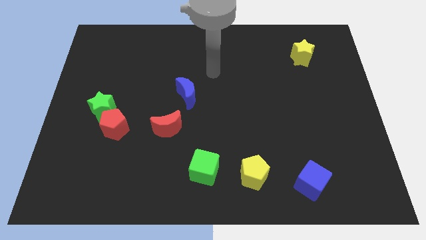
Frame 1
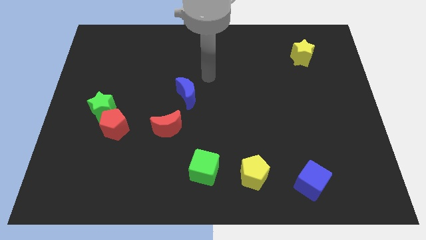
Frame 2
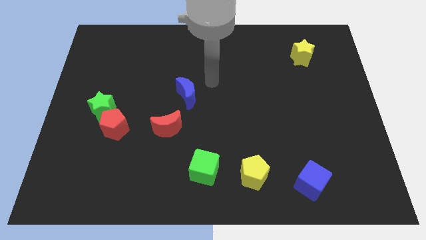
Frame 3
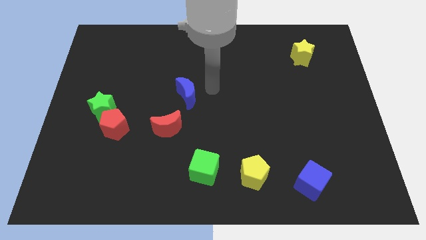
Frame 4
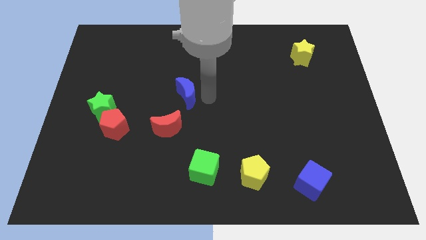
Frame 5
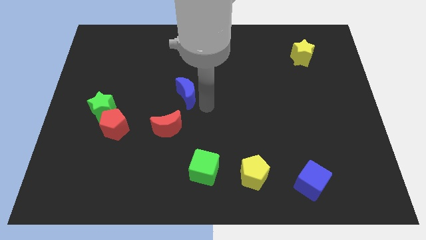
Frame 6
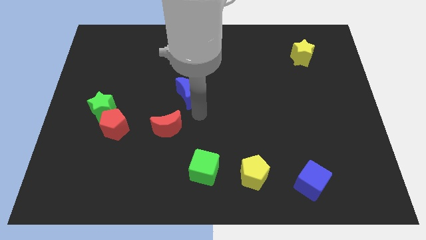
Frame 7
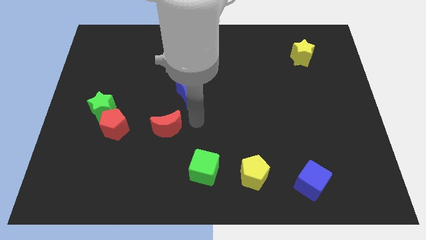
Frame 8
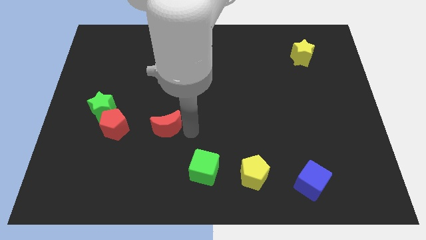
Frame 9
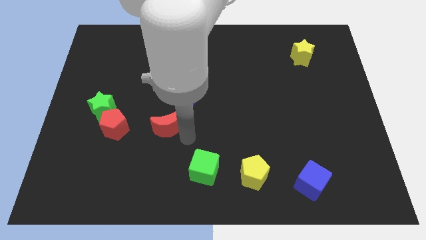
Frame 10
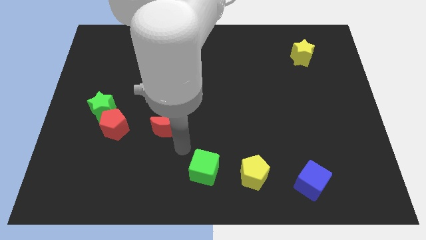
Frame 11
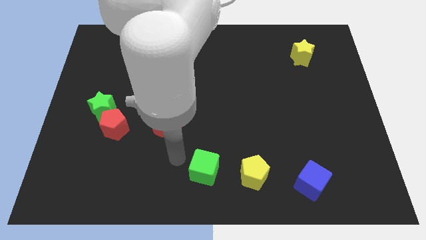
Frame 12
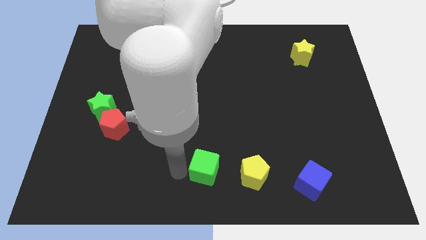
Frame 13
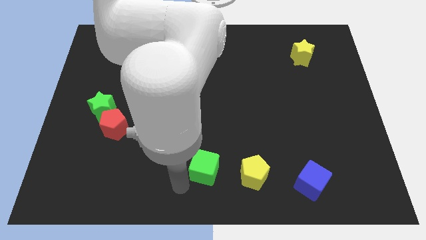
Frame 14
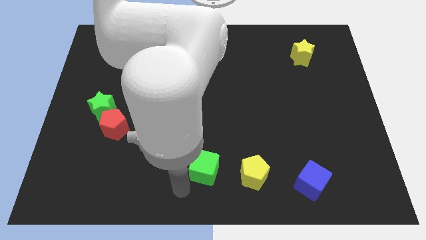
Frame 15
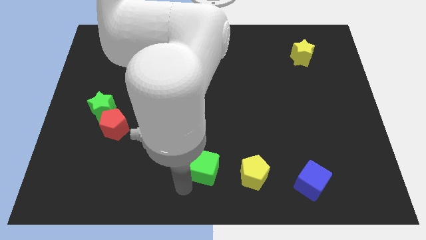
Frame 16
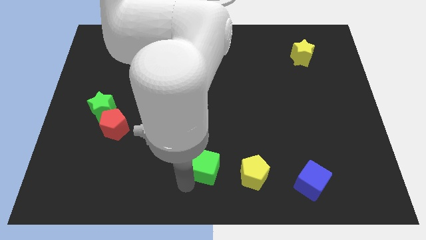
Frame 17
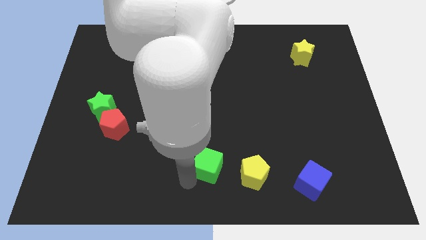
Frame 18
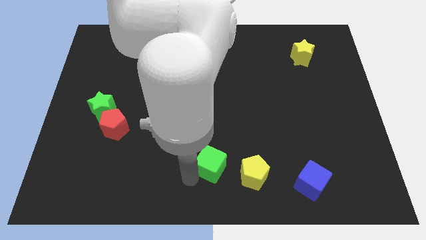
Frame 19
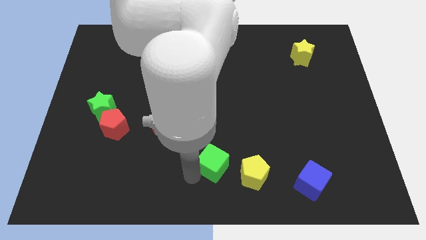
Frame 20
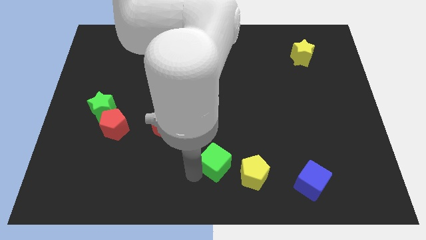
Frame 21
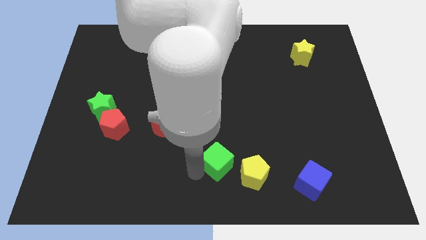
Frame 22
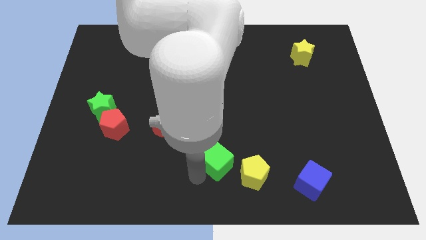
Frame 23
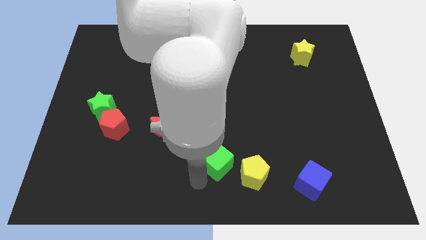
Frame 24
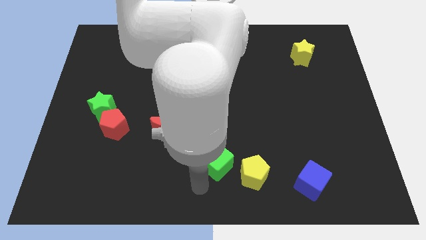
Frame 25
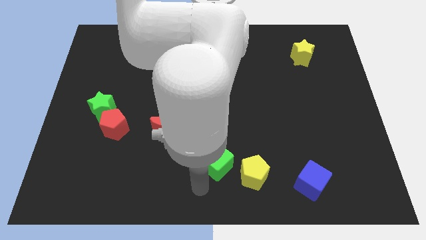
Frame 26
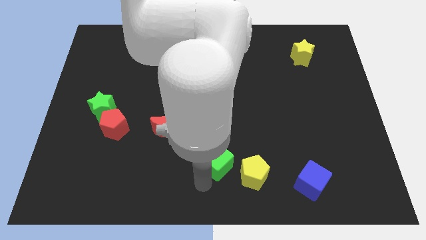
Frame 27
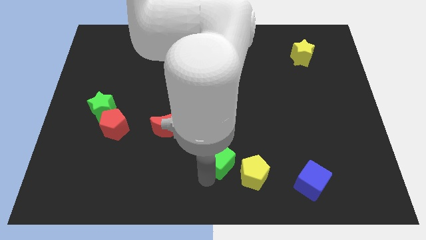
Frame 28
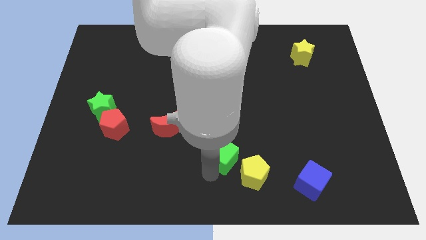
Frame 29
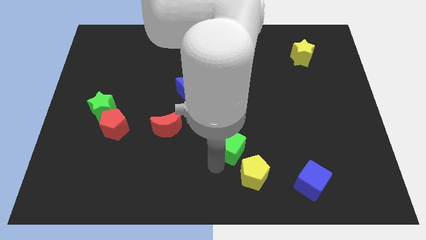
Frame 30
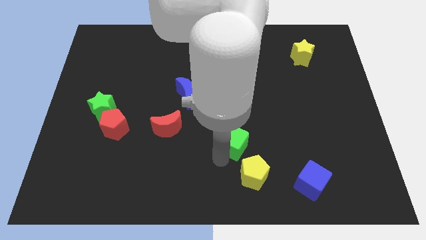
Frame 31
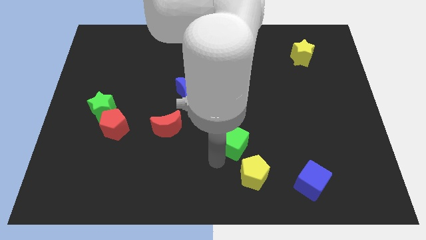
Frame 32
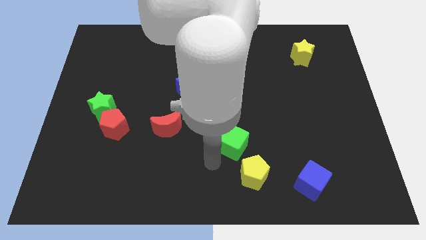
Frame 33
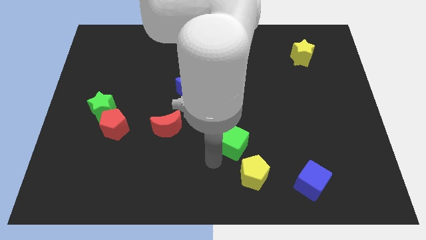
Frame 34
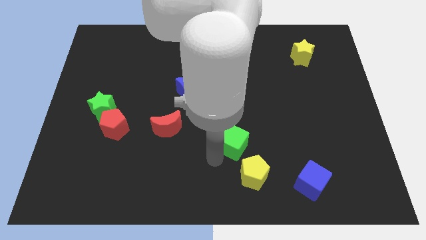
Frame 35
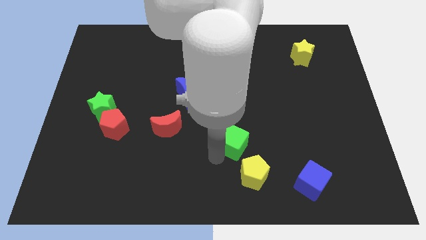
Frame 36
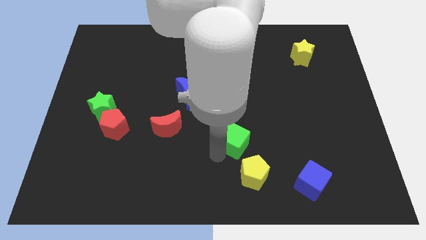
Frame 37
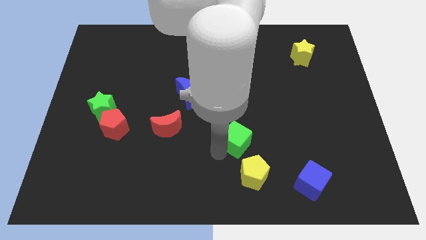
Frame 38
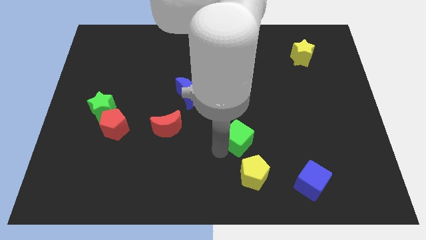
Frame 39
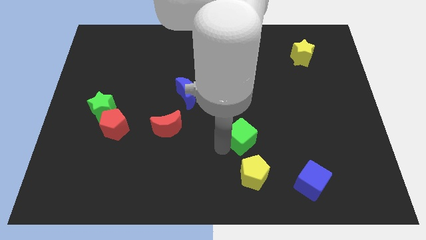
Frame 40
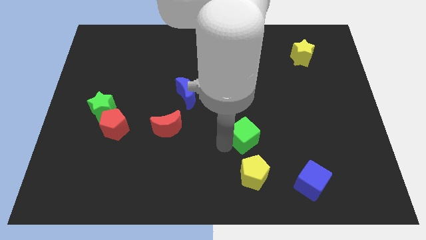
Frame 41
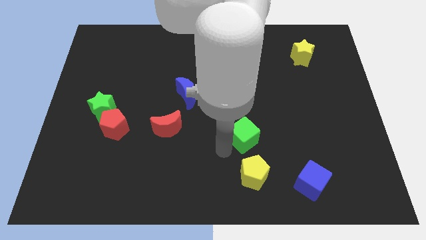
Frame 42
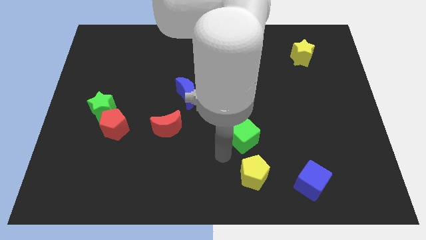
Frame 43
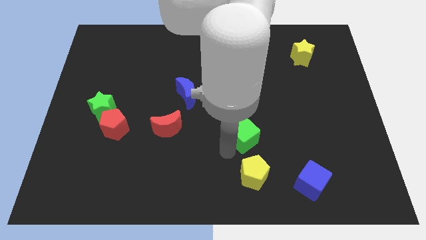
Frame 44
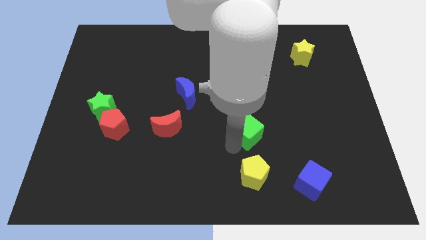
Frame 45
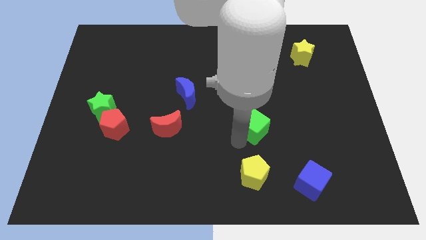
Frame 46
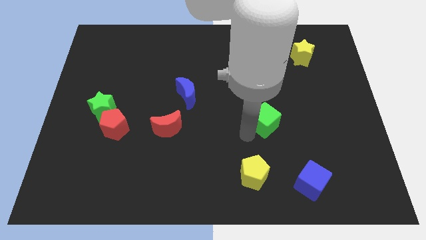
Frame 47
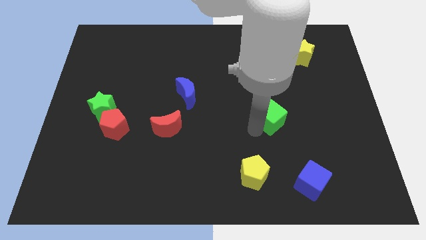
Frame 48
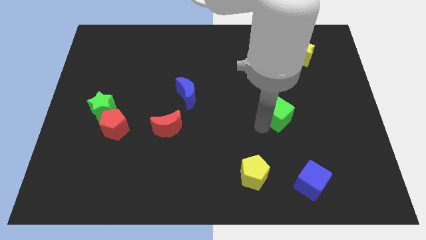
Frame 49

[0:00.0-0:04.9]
slide the green cube diagonally up and to the right

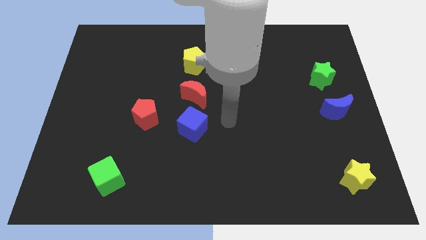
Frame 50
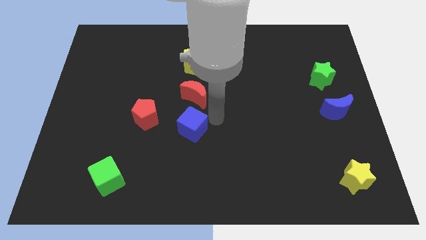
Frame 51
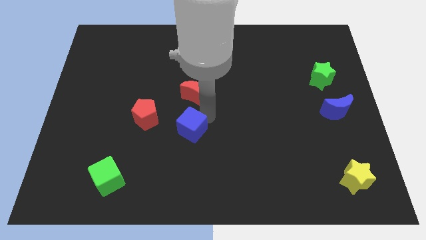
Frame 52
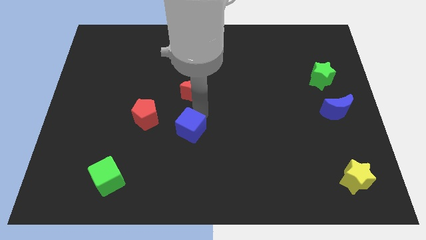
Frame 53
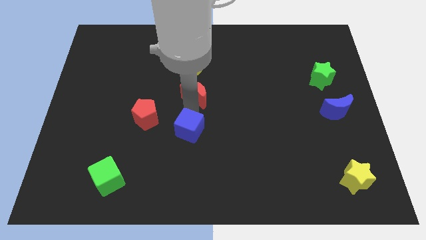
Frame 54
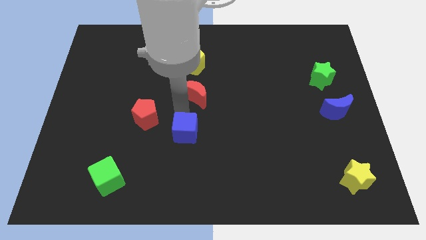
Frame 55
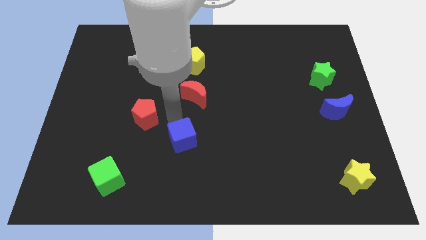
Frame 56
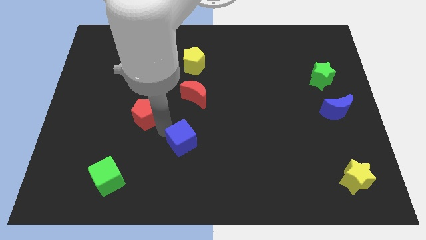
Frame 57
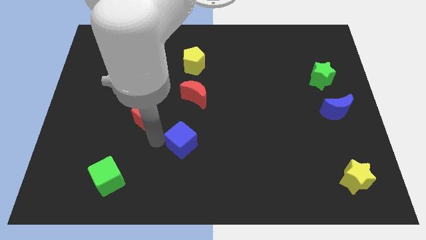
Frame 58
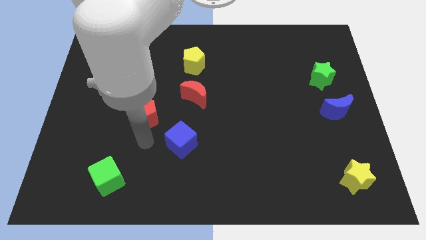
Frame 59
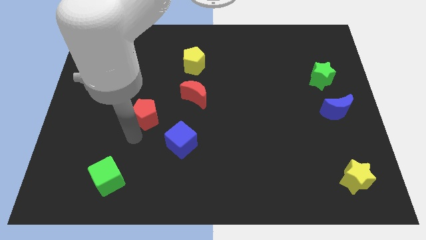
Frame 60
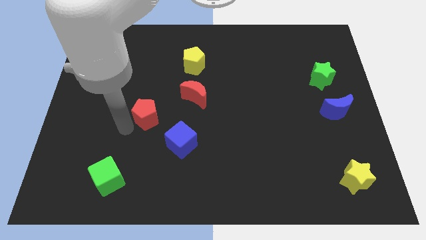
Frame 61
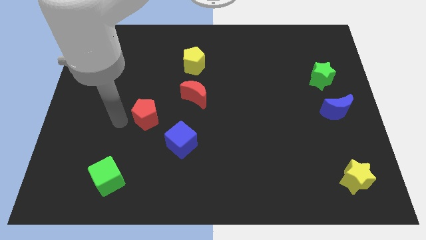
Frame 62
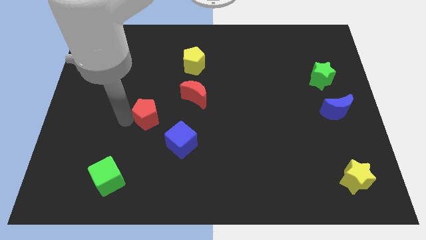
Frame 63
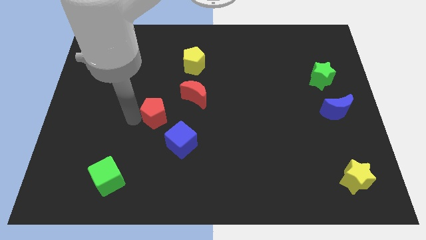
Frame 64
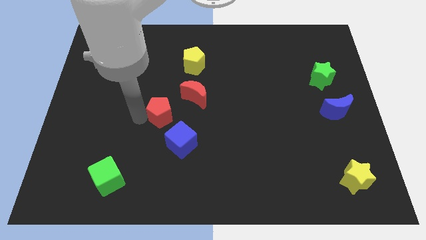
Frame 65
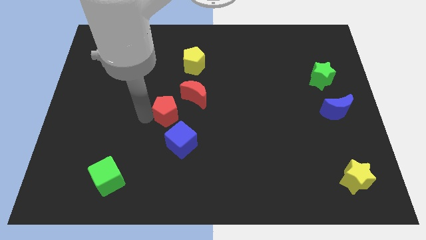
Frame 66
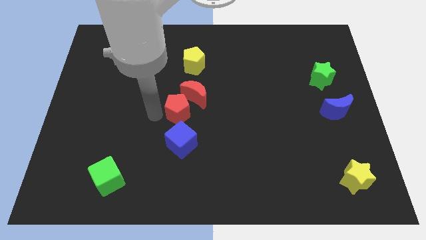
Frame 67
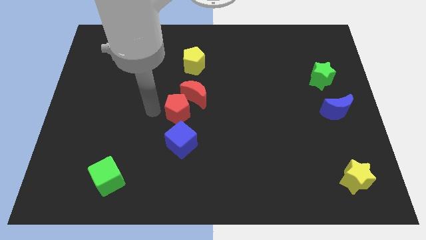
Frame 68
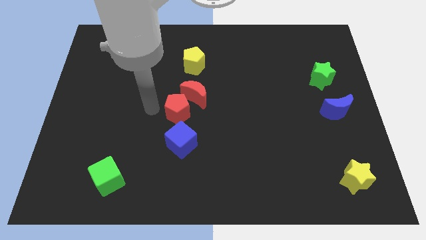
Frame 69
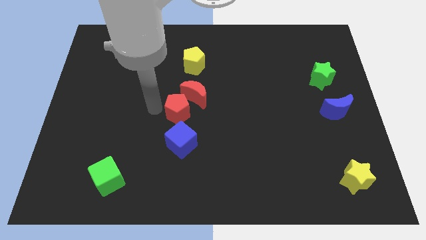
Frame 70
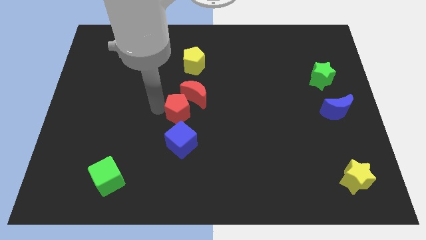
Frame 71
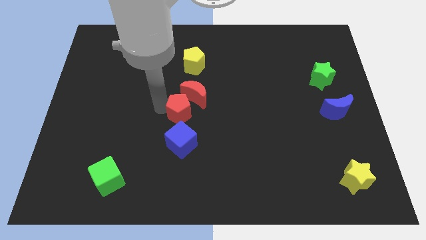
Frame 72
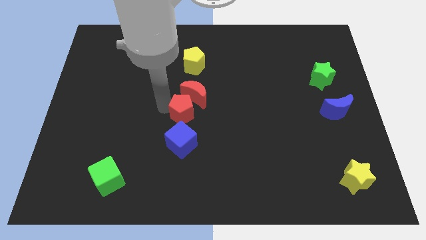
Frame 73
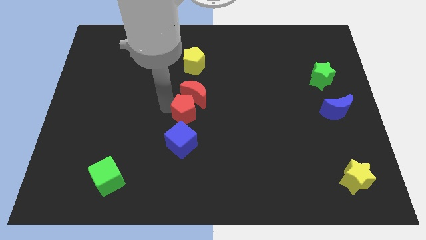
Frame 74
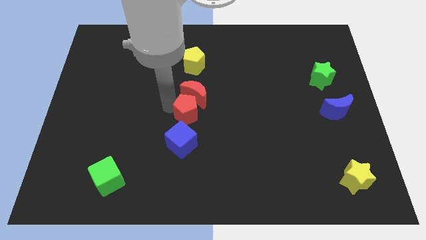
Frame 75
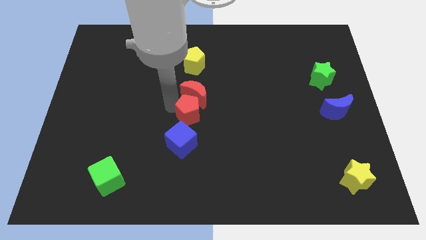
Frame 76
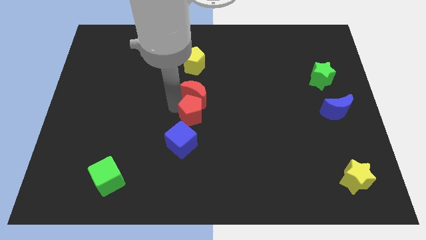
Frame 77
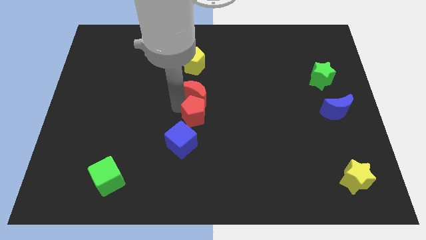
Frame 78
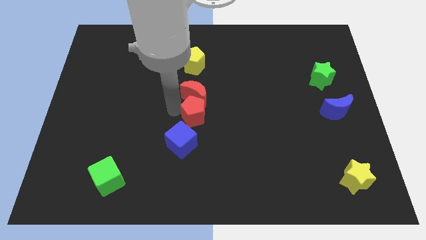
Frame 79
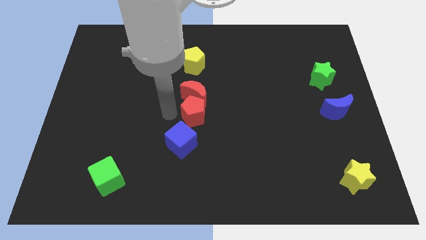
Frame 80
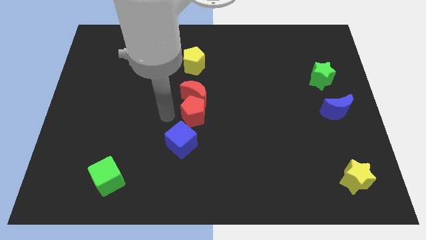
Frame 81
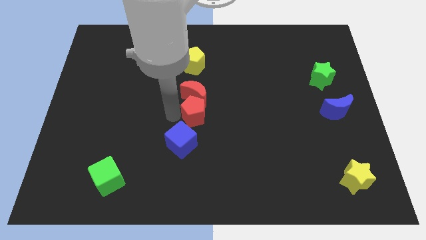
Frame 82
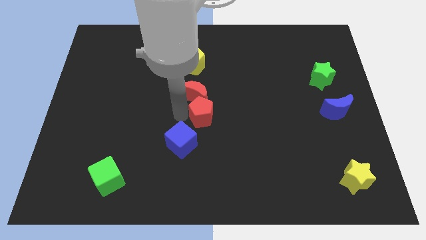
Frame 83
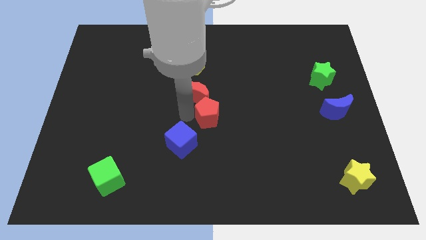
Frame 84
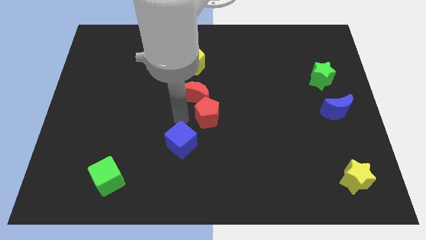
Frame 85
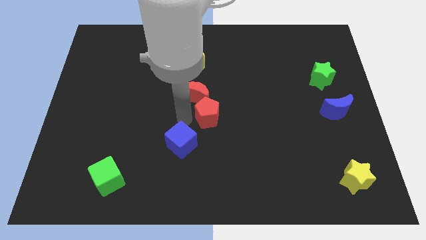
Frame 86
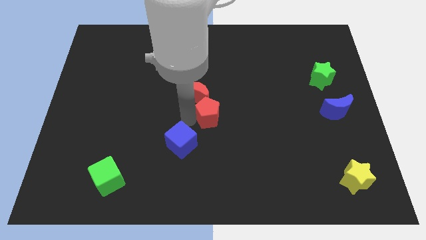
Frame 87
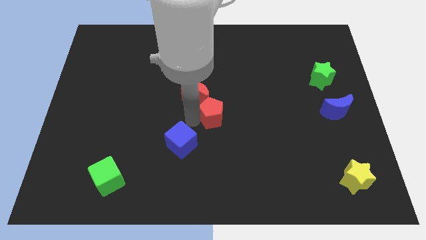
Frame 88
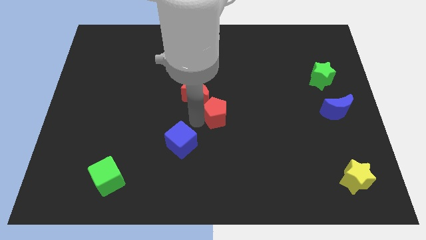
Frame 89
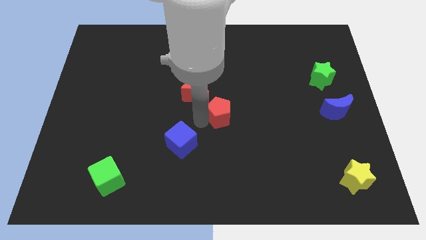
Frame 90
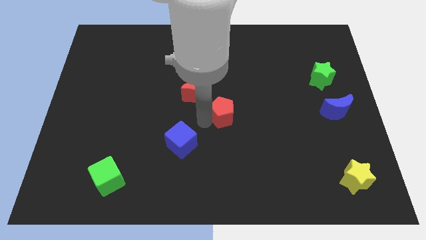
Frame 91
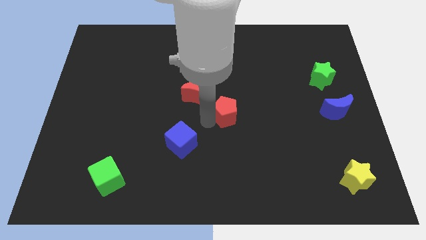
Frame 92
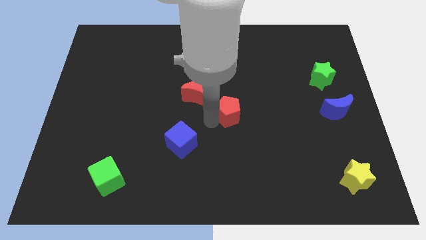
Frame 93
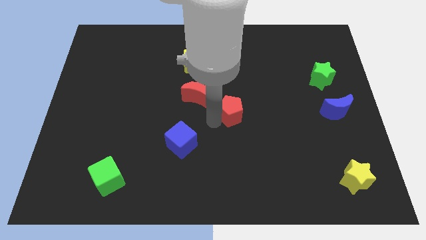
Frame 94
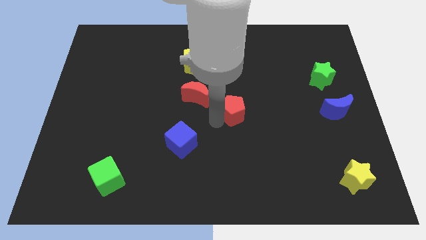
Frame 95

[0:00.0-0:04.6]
slide the red pentagon to the right
